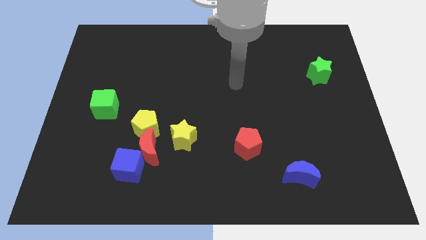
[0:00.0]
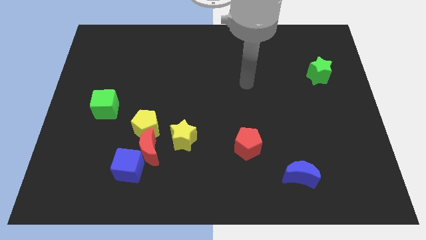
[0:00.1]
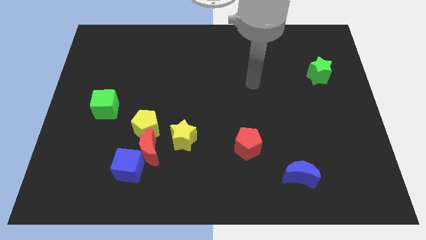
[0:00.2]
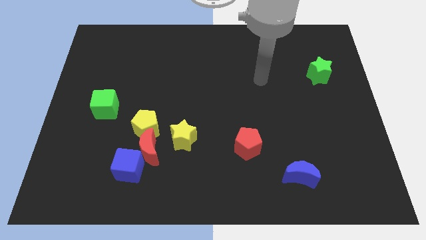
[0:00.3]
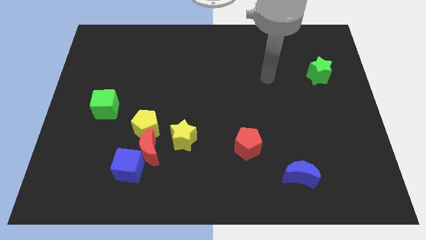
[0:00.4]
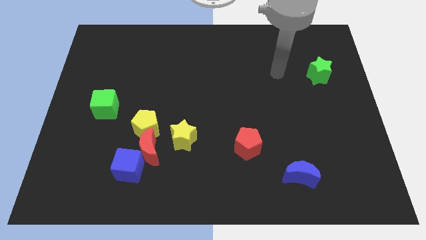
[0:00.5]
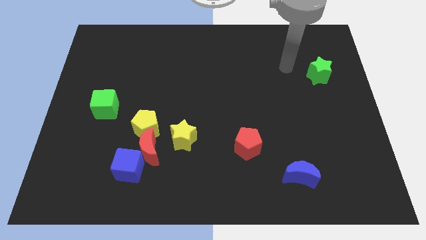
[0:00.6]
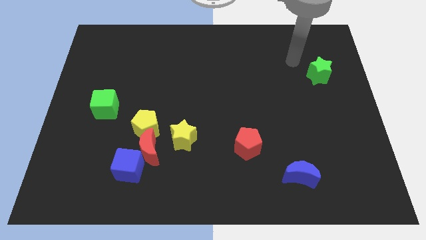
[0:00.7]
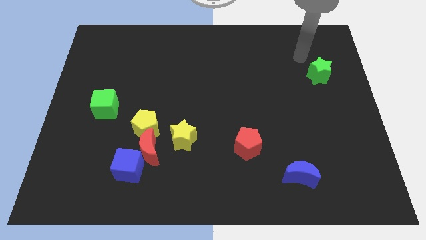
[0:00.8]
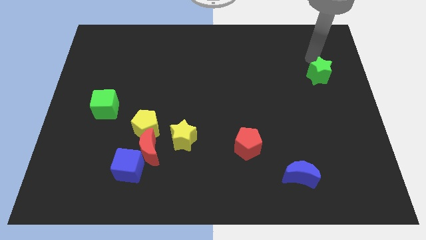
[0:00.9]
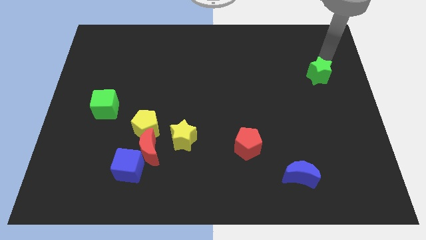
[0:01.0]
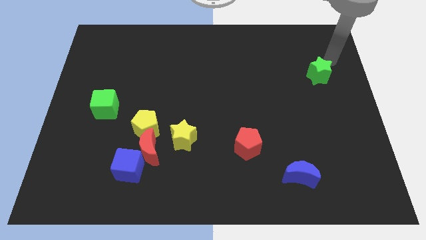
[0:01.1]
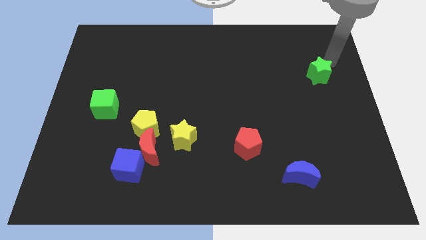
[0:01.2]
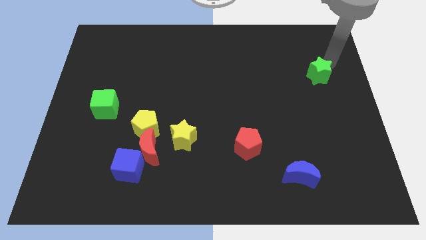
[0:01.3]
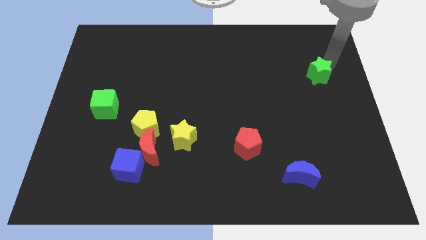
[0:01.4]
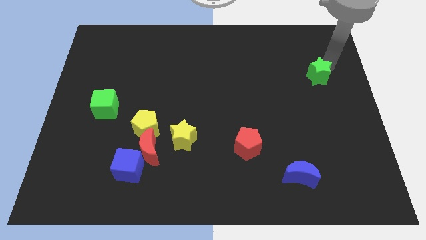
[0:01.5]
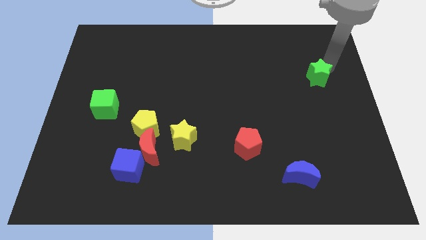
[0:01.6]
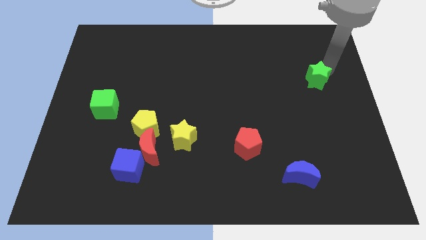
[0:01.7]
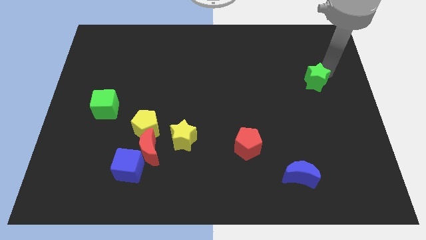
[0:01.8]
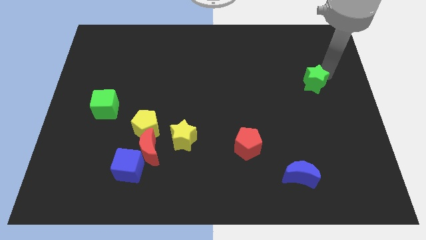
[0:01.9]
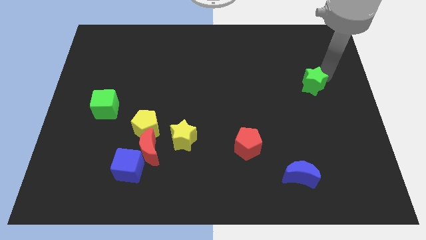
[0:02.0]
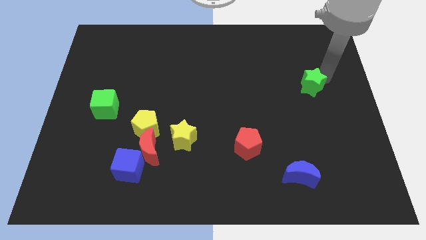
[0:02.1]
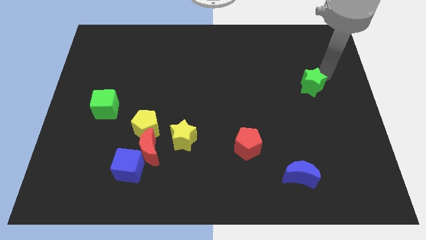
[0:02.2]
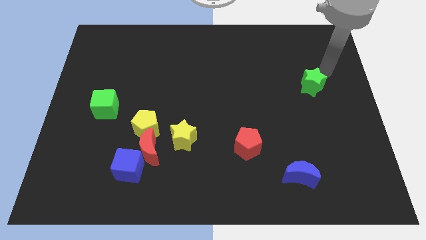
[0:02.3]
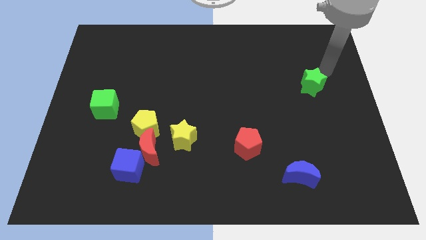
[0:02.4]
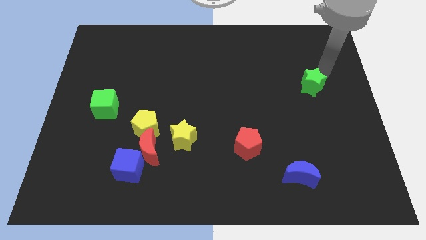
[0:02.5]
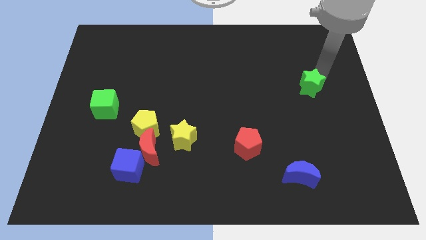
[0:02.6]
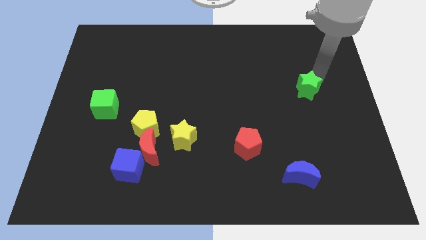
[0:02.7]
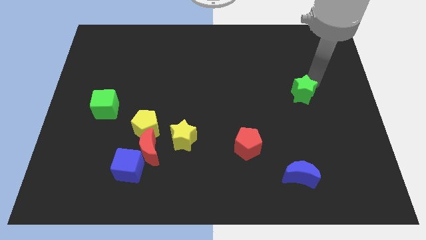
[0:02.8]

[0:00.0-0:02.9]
slightly push the green star down and left diagonally

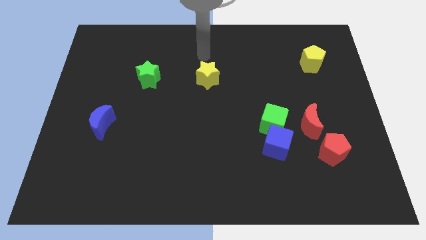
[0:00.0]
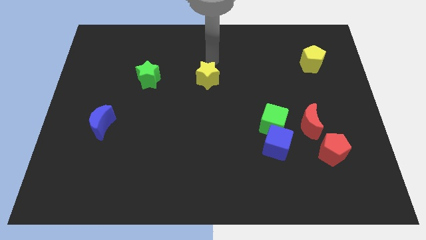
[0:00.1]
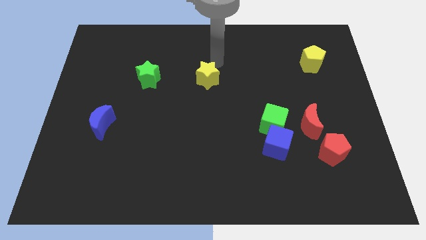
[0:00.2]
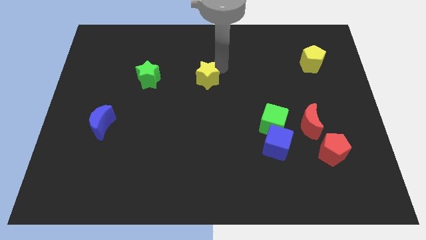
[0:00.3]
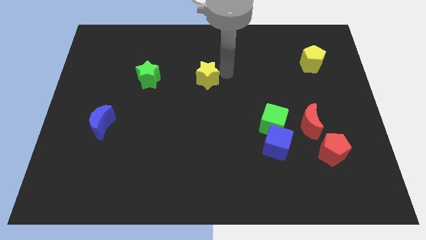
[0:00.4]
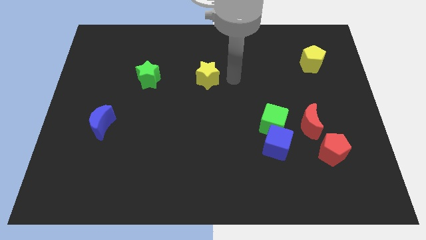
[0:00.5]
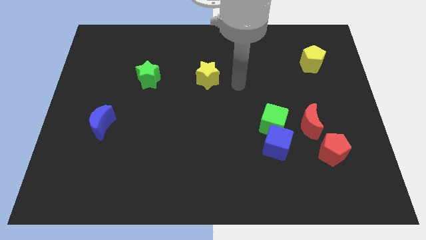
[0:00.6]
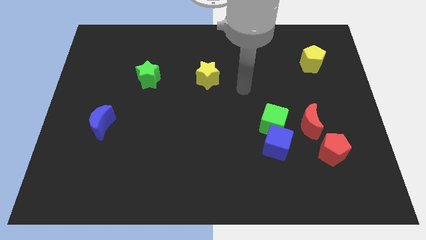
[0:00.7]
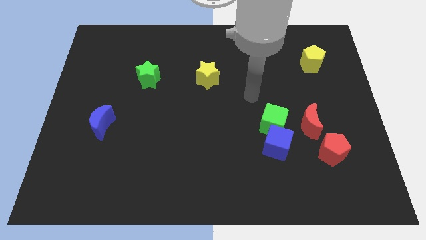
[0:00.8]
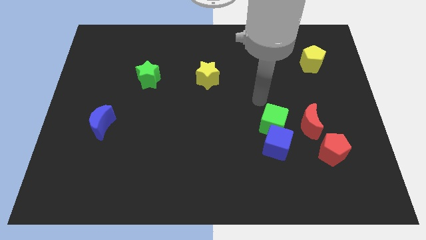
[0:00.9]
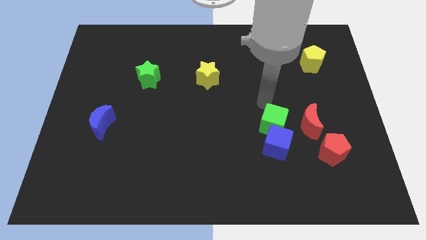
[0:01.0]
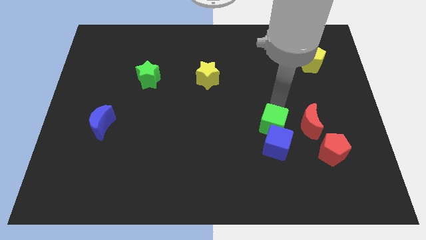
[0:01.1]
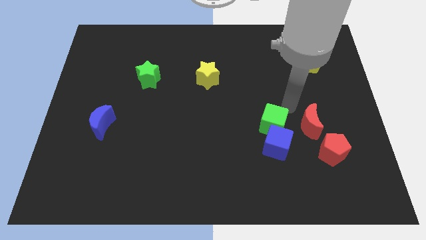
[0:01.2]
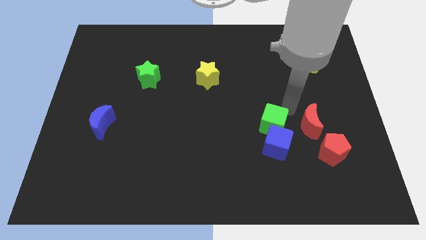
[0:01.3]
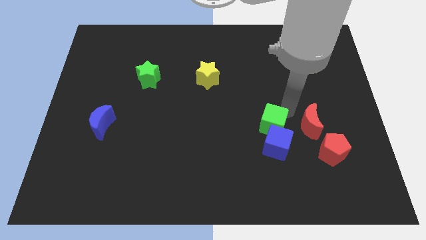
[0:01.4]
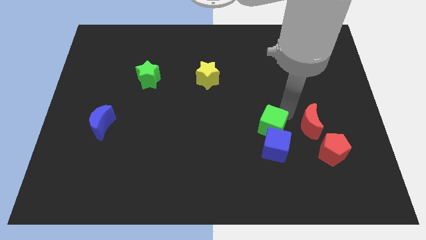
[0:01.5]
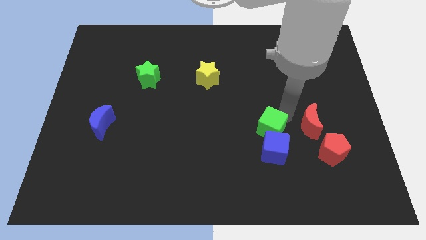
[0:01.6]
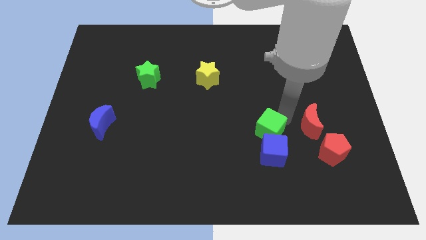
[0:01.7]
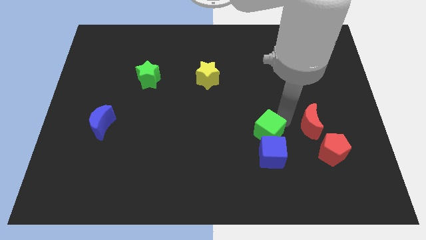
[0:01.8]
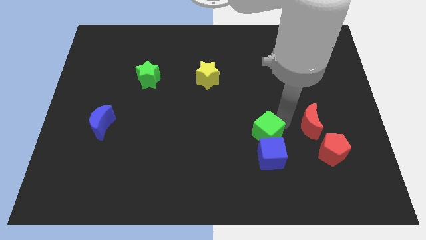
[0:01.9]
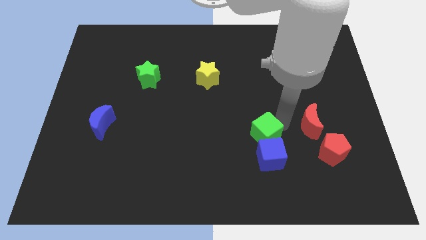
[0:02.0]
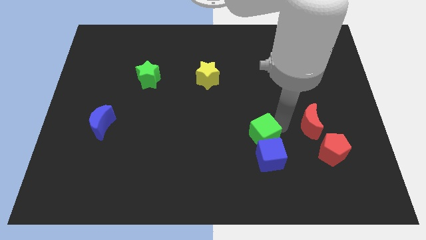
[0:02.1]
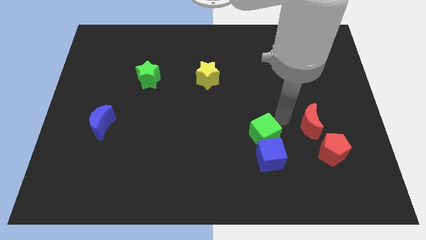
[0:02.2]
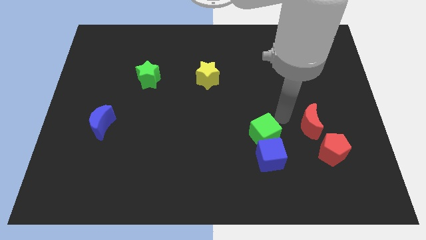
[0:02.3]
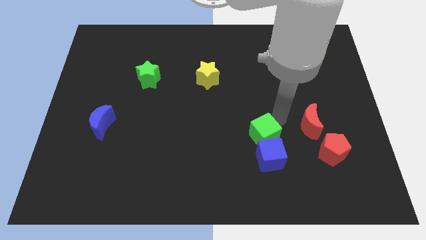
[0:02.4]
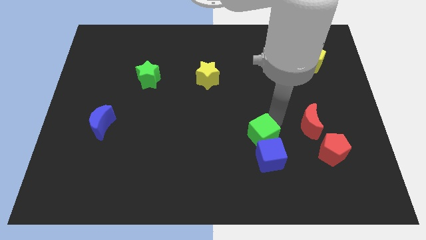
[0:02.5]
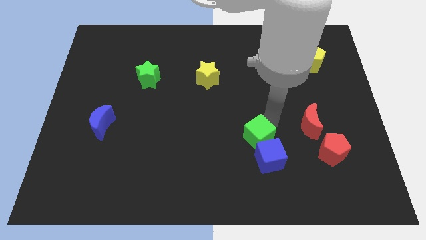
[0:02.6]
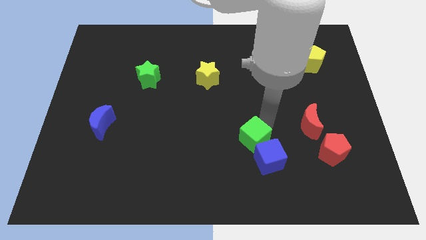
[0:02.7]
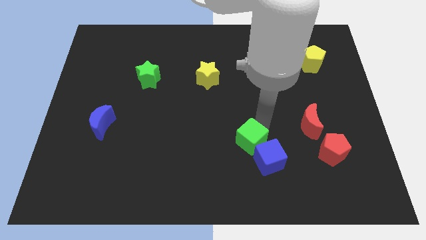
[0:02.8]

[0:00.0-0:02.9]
slide the green cube a bit downwards and left

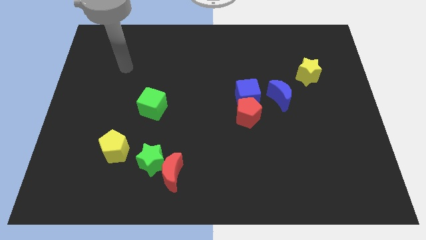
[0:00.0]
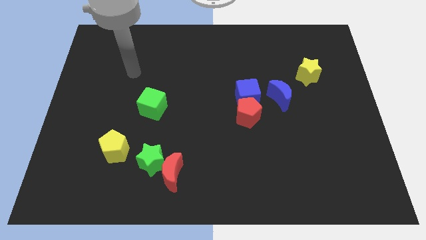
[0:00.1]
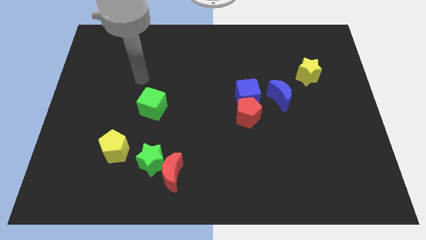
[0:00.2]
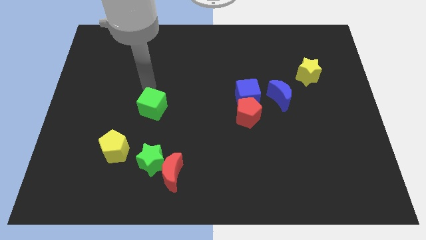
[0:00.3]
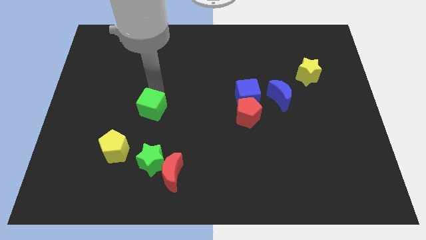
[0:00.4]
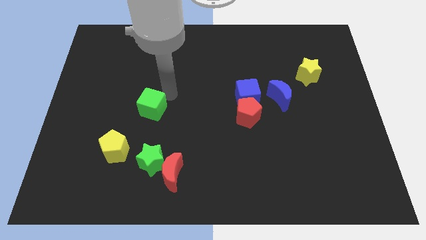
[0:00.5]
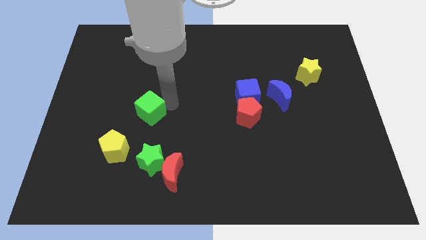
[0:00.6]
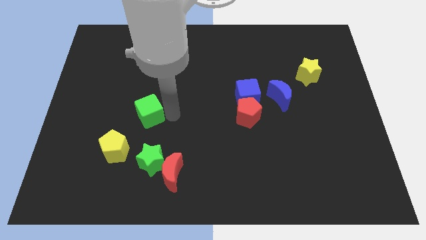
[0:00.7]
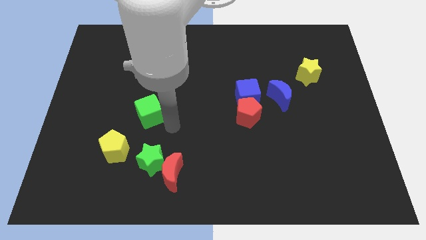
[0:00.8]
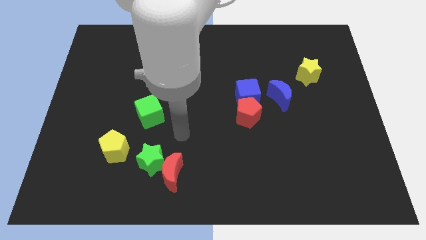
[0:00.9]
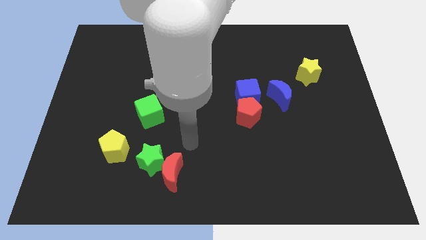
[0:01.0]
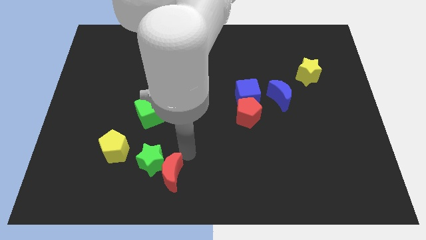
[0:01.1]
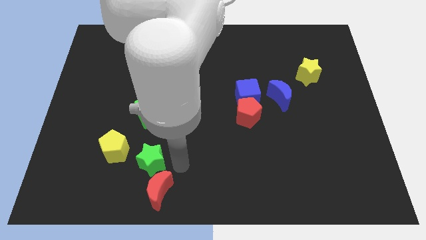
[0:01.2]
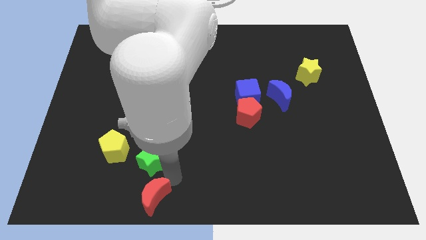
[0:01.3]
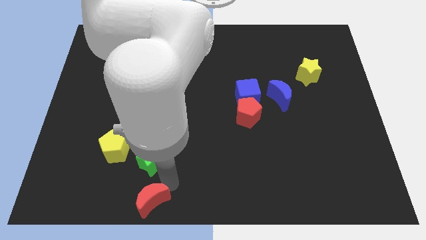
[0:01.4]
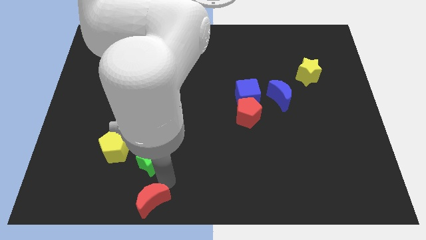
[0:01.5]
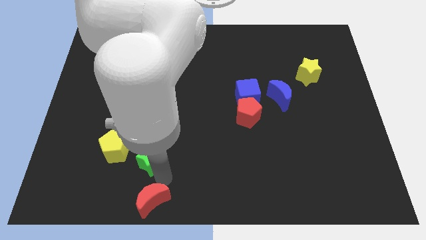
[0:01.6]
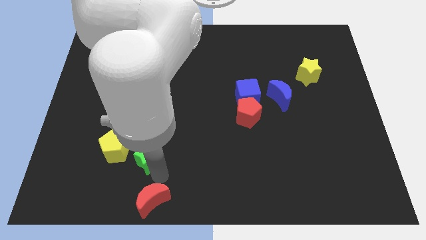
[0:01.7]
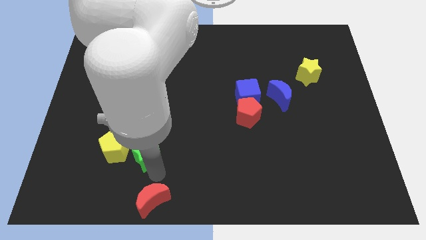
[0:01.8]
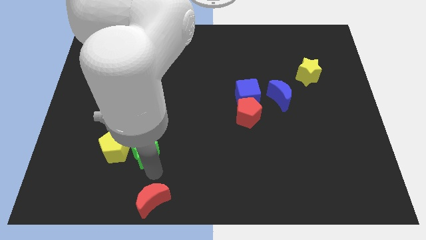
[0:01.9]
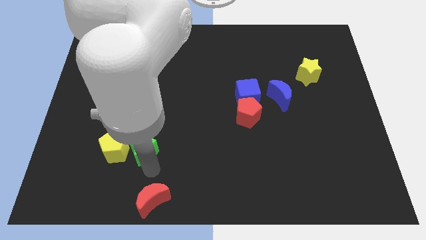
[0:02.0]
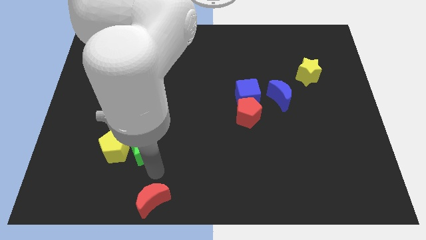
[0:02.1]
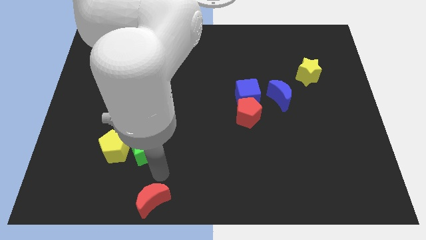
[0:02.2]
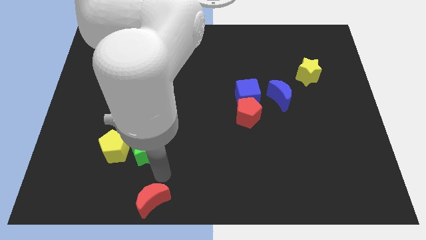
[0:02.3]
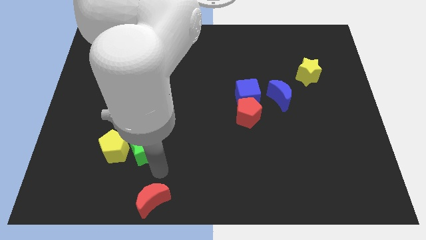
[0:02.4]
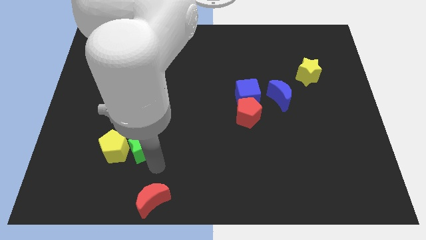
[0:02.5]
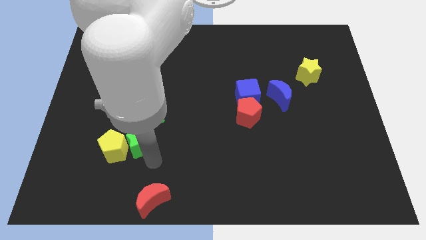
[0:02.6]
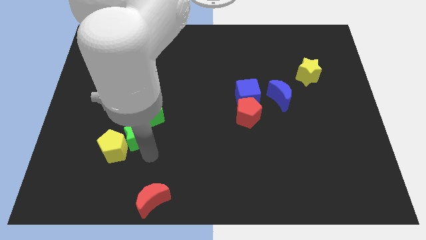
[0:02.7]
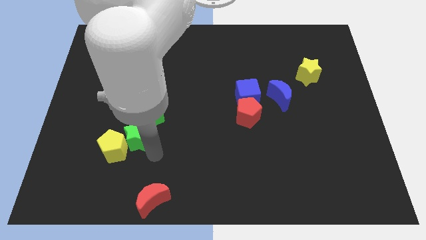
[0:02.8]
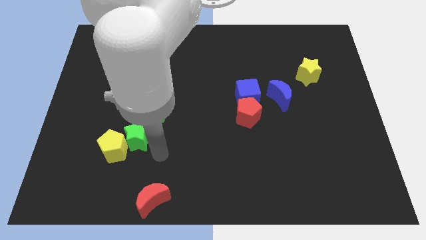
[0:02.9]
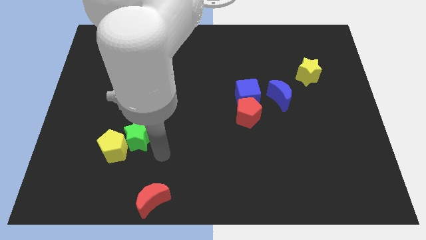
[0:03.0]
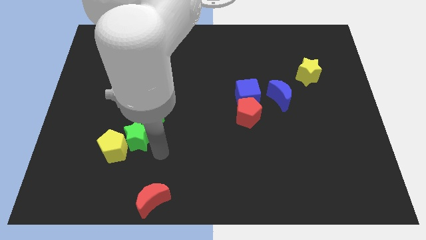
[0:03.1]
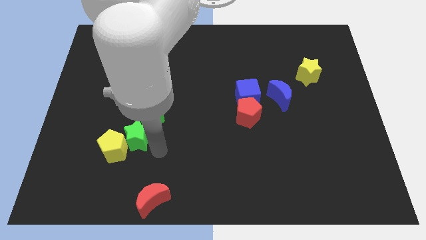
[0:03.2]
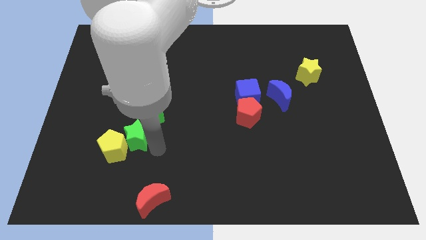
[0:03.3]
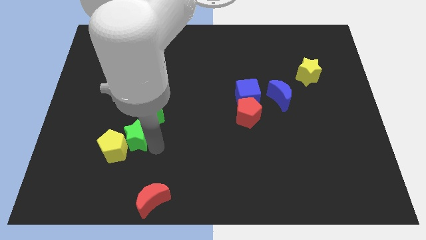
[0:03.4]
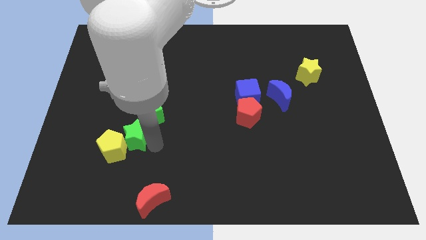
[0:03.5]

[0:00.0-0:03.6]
slide the green star up and to the left diagonally a little bit
